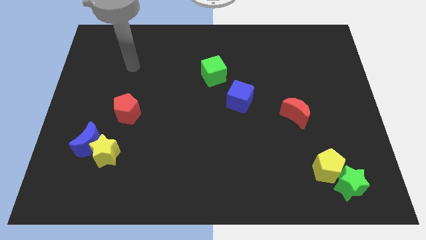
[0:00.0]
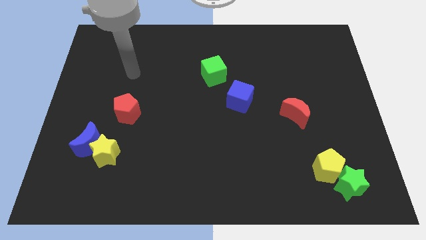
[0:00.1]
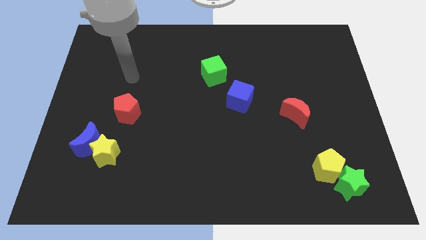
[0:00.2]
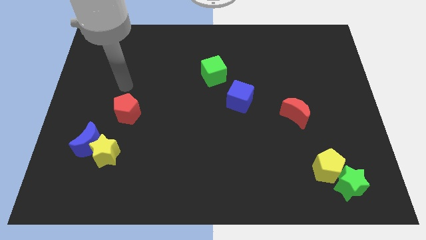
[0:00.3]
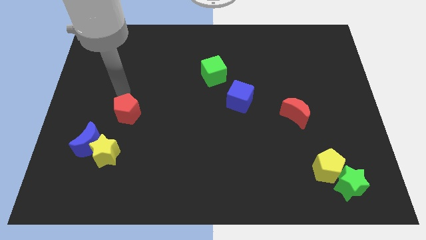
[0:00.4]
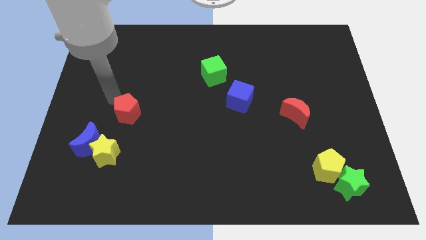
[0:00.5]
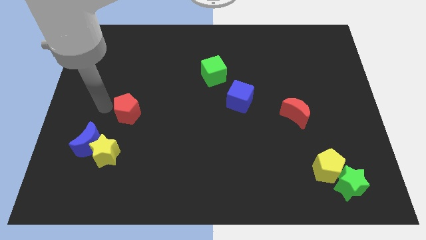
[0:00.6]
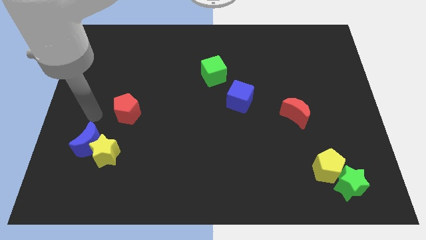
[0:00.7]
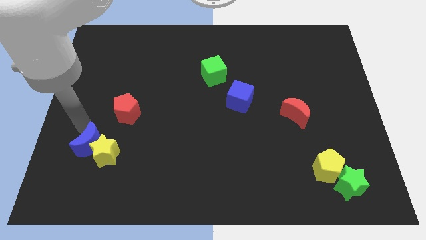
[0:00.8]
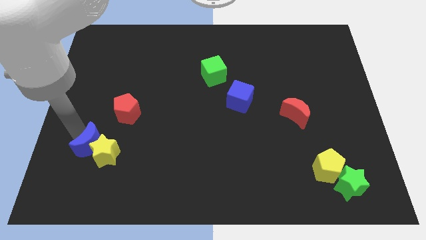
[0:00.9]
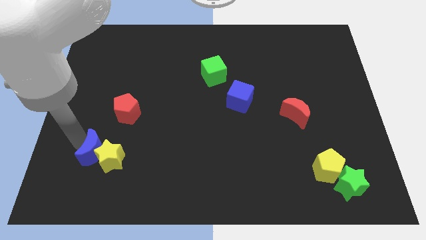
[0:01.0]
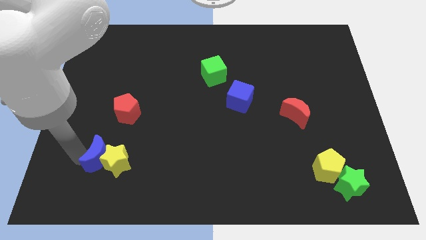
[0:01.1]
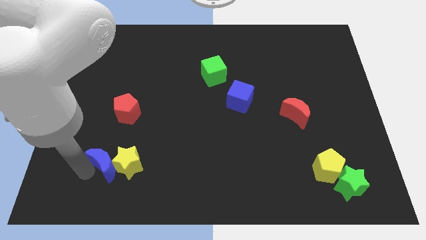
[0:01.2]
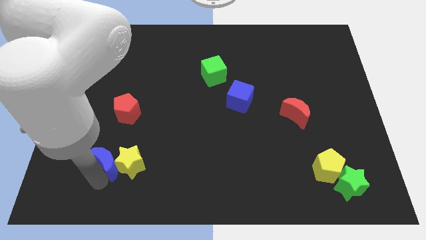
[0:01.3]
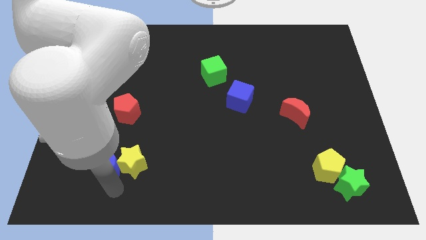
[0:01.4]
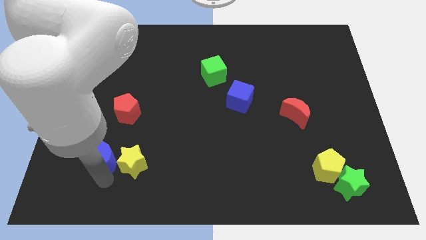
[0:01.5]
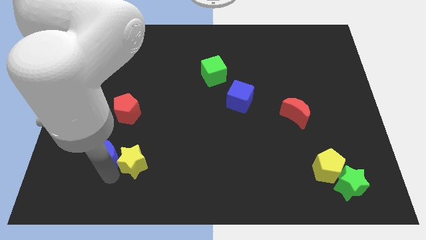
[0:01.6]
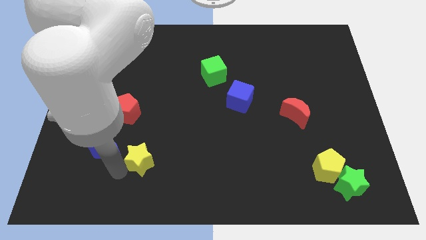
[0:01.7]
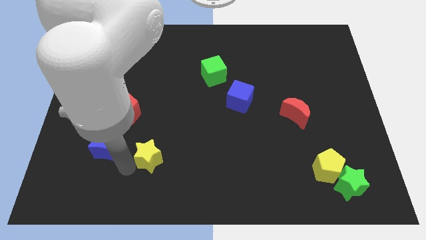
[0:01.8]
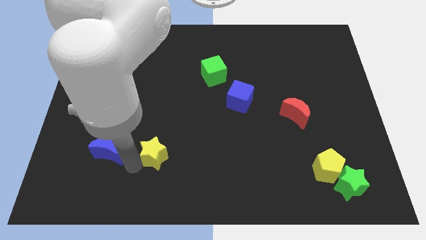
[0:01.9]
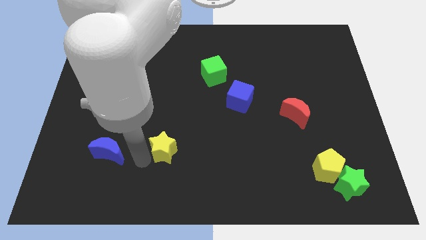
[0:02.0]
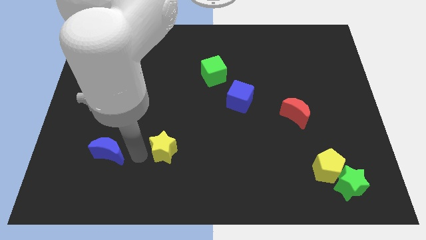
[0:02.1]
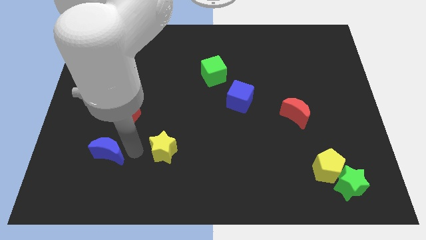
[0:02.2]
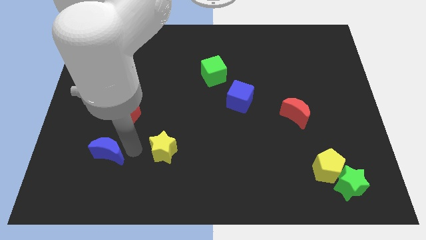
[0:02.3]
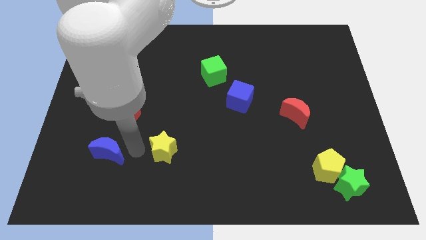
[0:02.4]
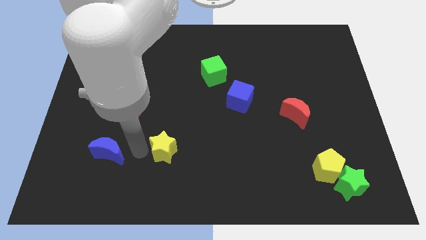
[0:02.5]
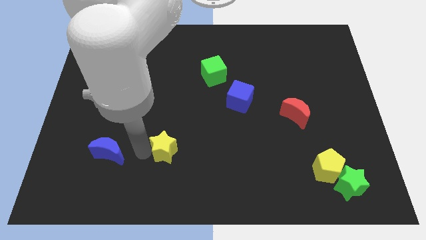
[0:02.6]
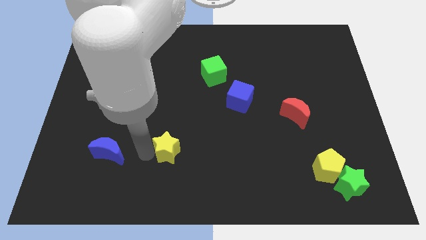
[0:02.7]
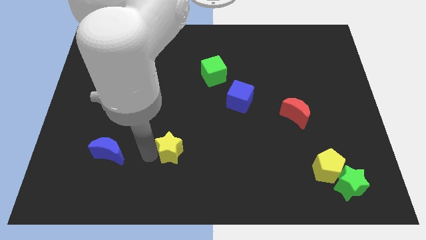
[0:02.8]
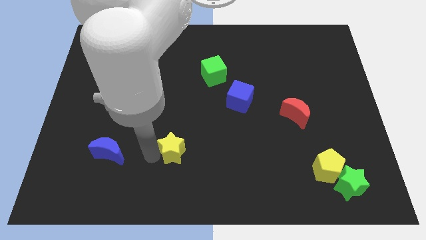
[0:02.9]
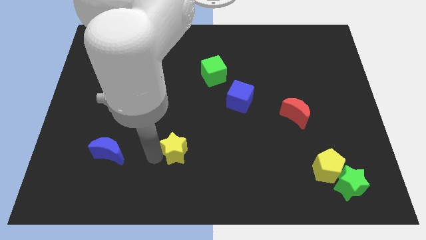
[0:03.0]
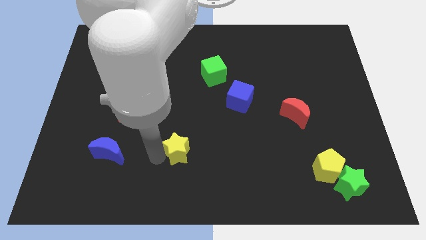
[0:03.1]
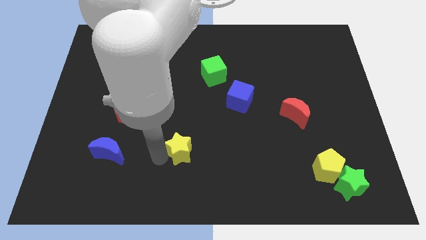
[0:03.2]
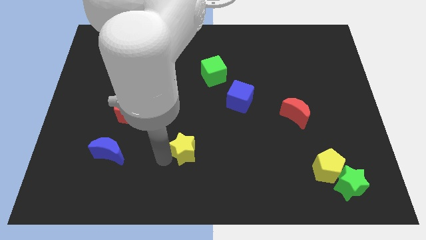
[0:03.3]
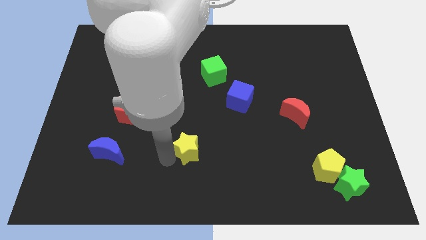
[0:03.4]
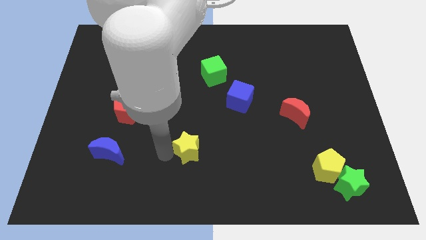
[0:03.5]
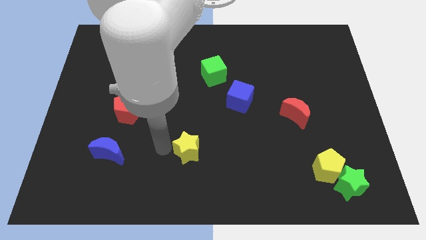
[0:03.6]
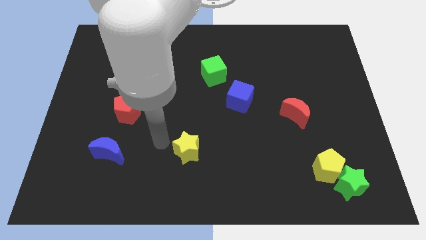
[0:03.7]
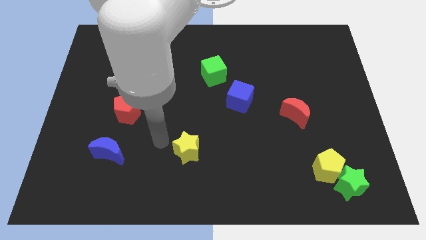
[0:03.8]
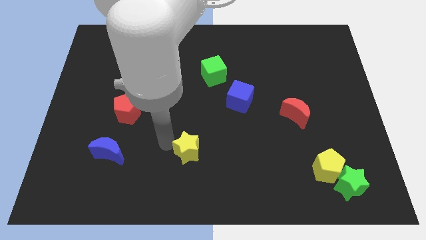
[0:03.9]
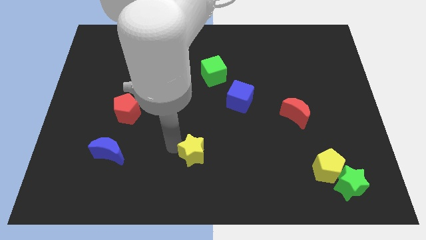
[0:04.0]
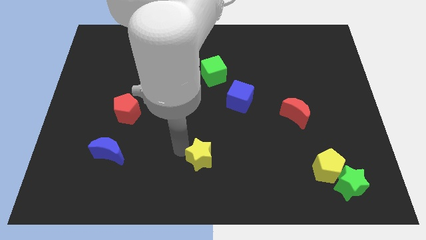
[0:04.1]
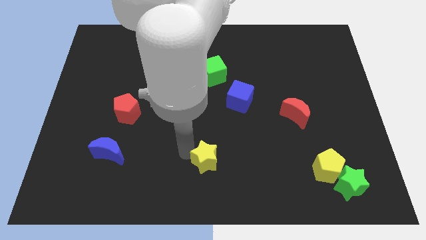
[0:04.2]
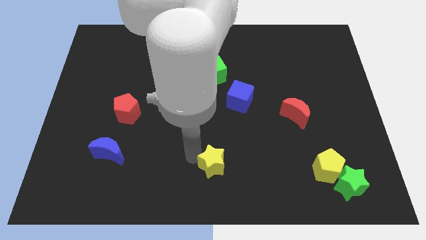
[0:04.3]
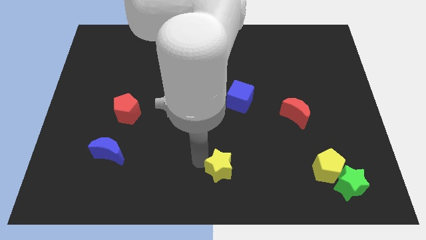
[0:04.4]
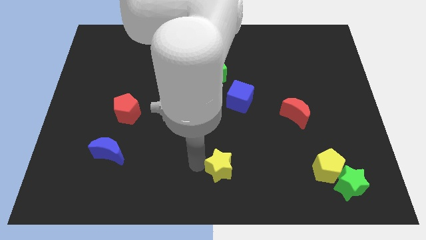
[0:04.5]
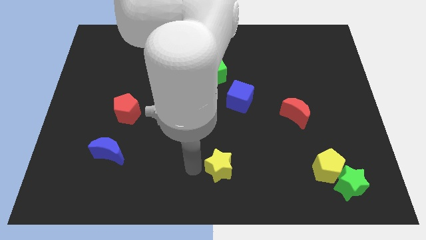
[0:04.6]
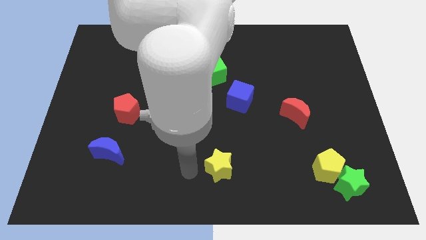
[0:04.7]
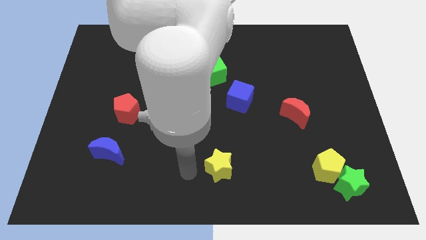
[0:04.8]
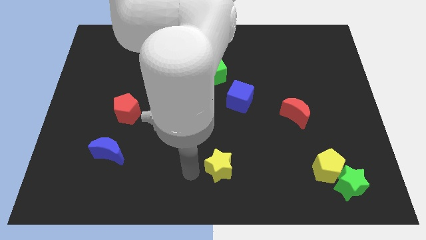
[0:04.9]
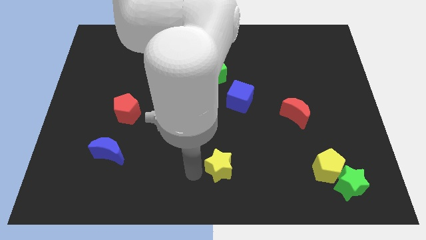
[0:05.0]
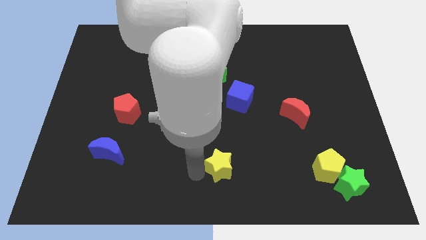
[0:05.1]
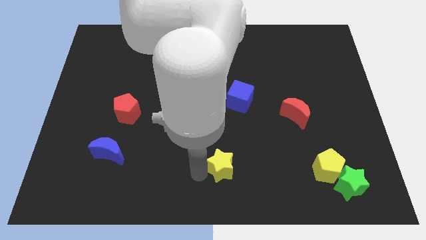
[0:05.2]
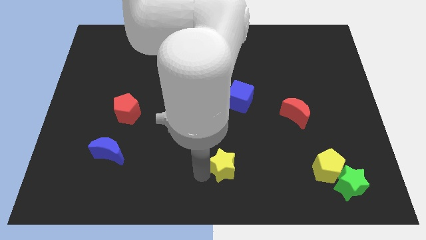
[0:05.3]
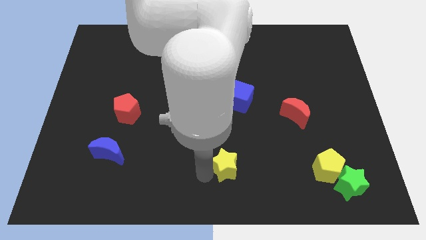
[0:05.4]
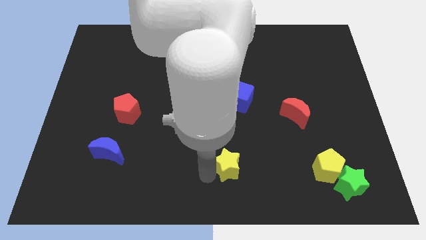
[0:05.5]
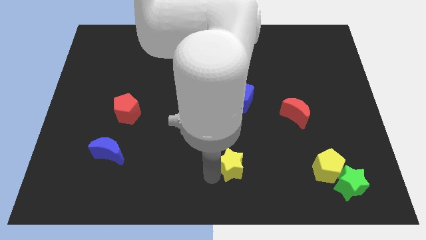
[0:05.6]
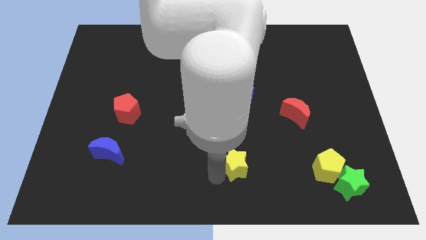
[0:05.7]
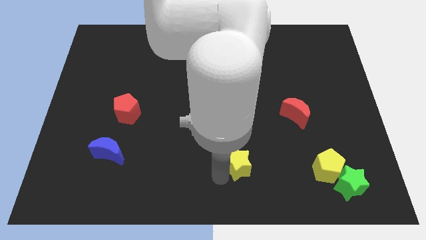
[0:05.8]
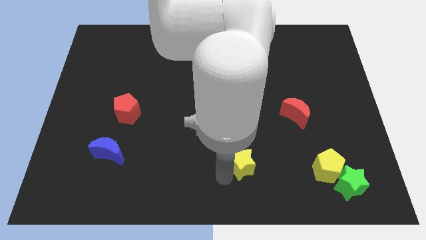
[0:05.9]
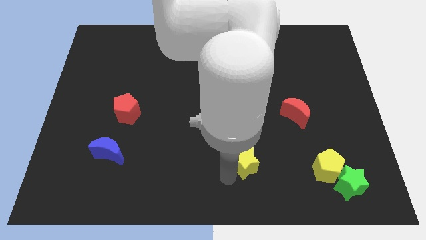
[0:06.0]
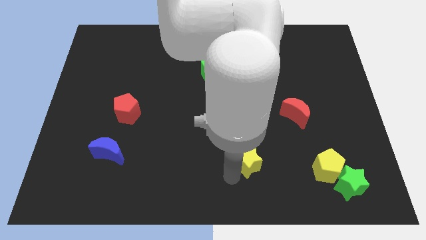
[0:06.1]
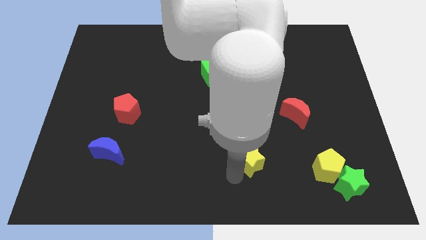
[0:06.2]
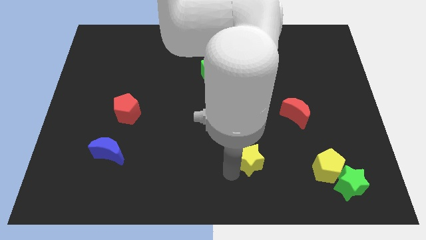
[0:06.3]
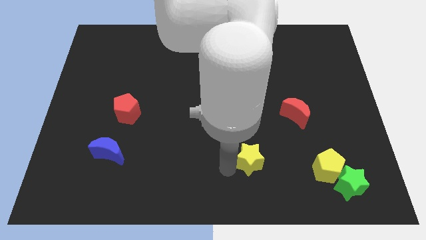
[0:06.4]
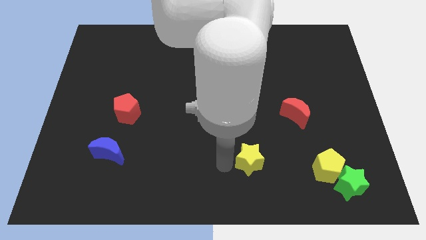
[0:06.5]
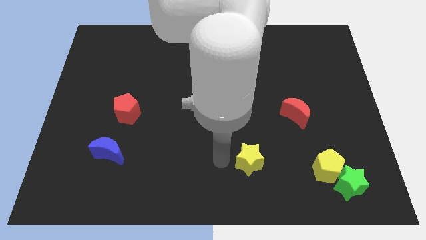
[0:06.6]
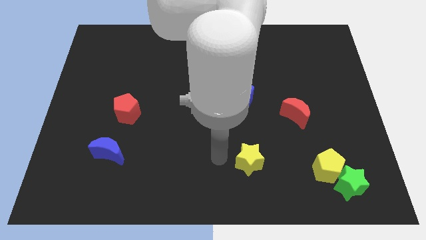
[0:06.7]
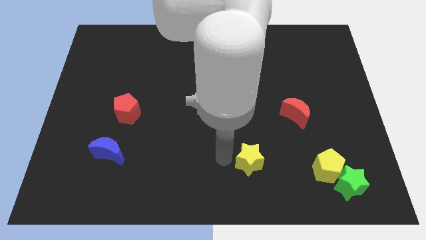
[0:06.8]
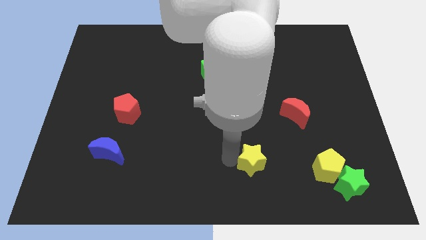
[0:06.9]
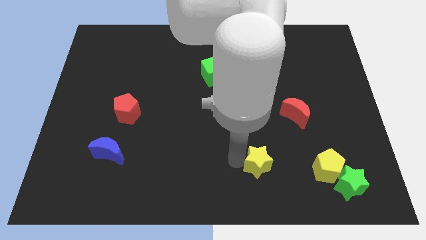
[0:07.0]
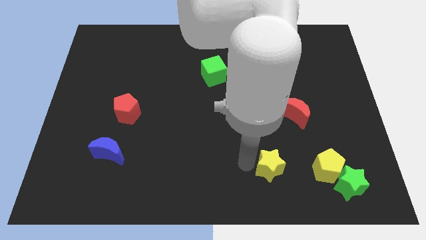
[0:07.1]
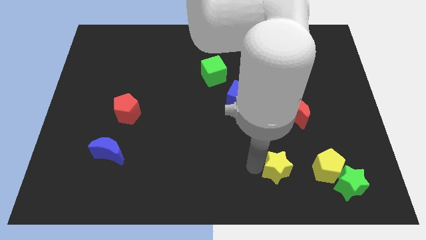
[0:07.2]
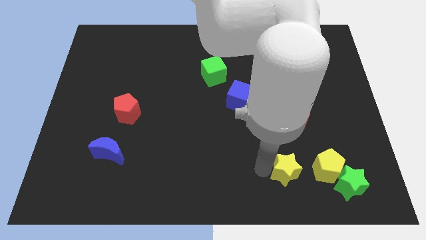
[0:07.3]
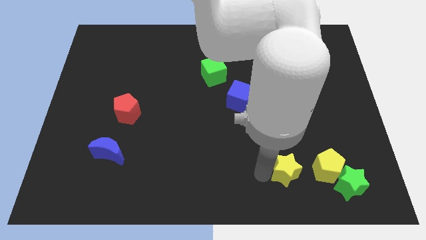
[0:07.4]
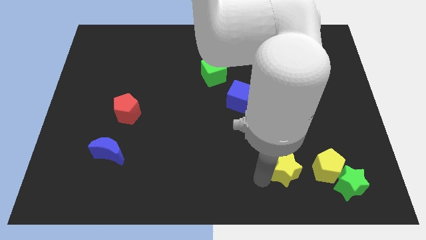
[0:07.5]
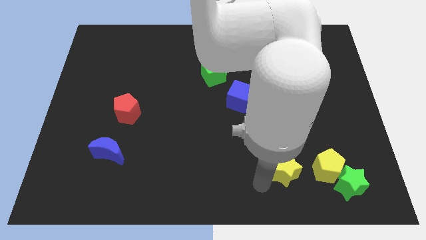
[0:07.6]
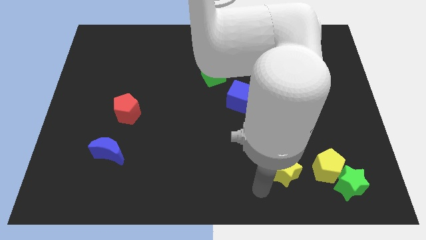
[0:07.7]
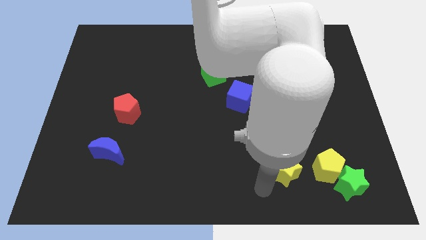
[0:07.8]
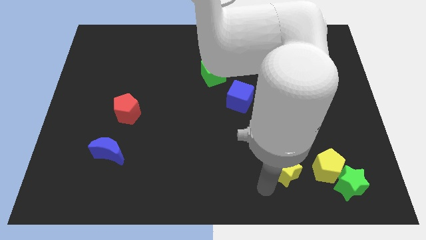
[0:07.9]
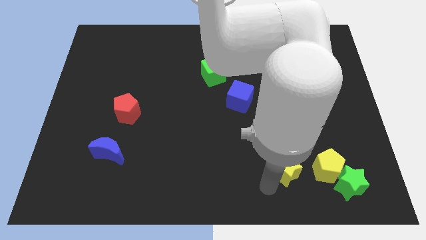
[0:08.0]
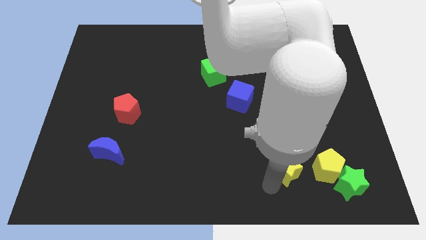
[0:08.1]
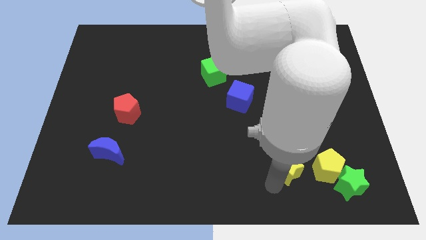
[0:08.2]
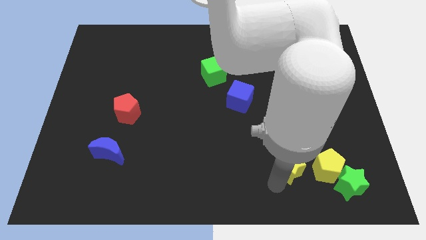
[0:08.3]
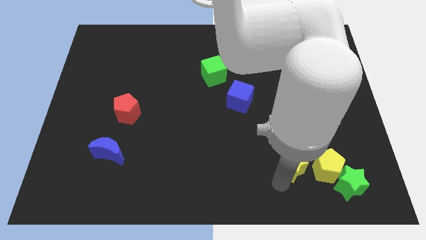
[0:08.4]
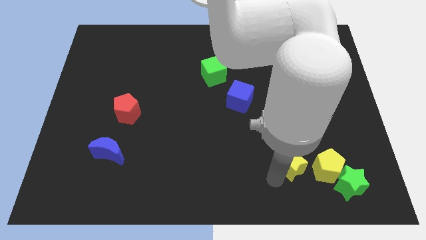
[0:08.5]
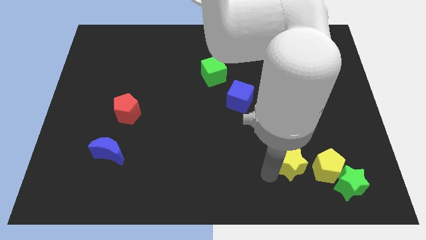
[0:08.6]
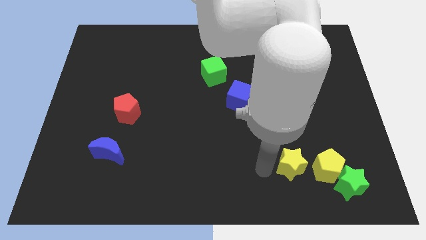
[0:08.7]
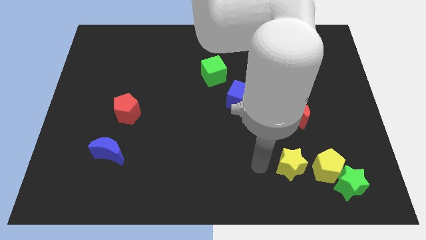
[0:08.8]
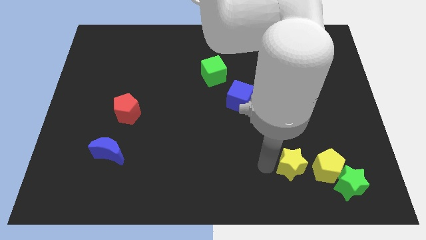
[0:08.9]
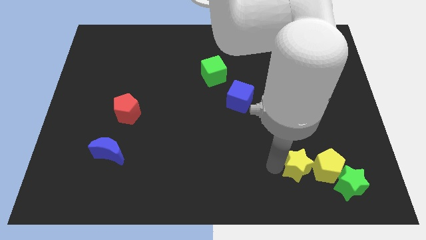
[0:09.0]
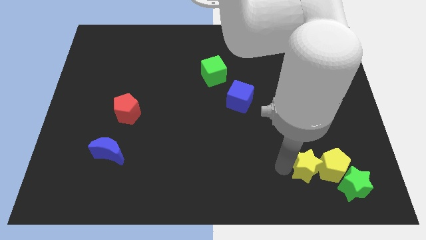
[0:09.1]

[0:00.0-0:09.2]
move the yellow star next to the yellow pentagon
